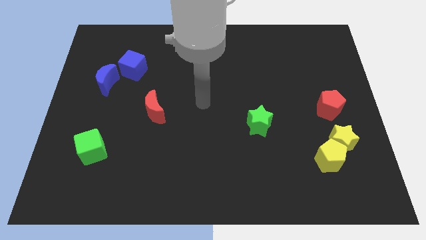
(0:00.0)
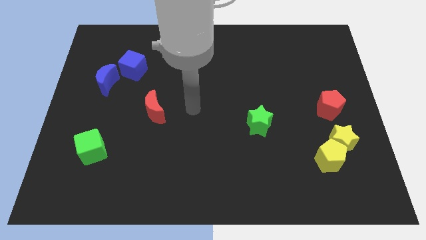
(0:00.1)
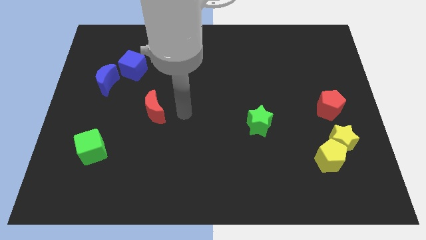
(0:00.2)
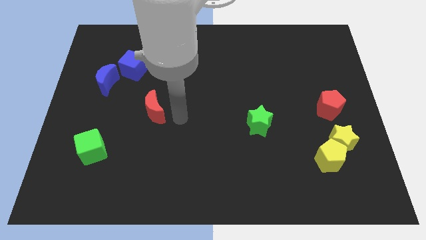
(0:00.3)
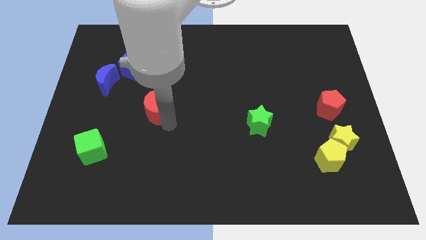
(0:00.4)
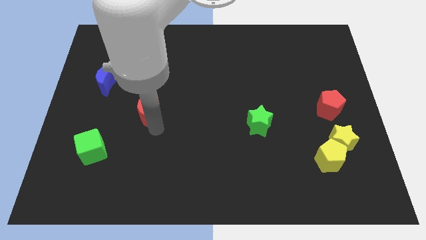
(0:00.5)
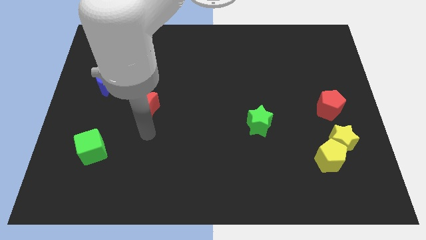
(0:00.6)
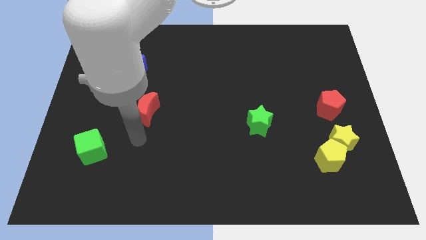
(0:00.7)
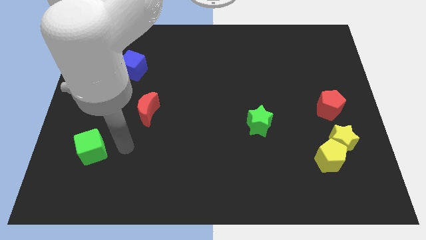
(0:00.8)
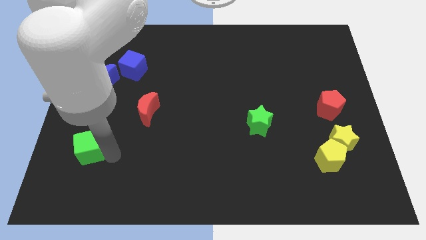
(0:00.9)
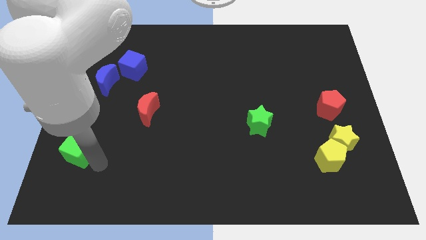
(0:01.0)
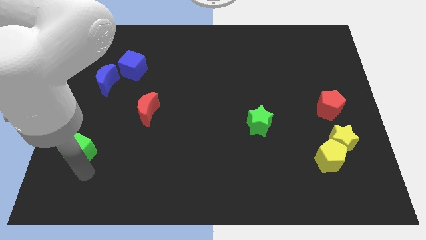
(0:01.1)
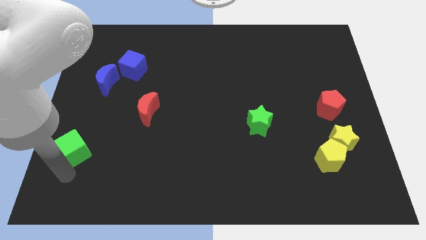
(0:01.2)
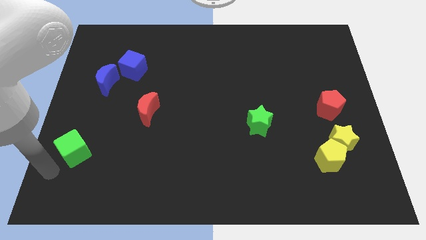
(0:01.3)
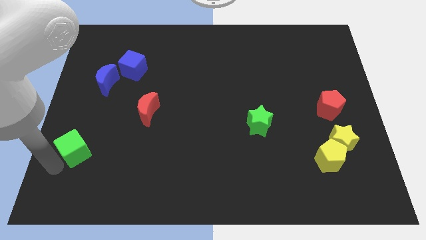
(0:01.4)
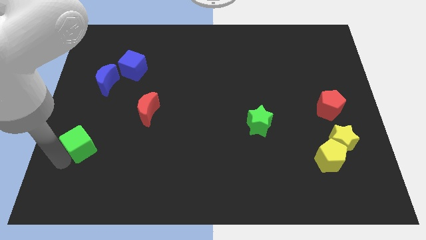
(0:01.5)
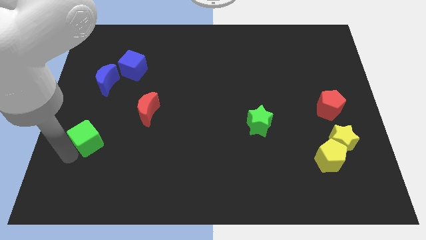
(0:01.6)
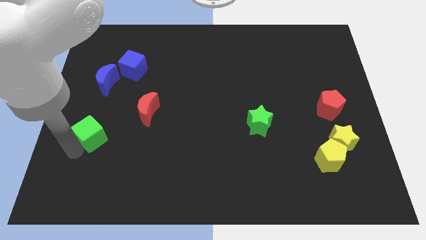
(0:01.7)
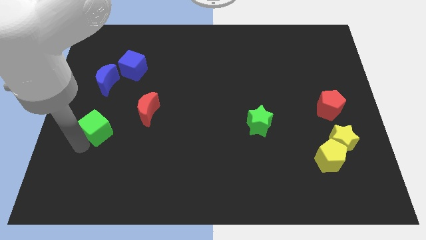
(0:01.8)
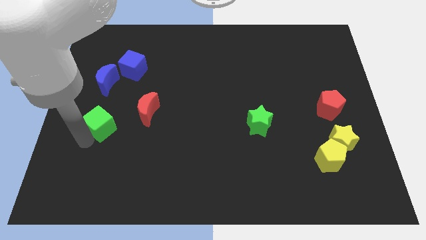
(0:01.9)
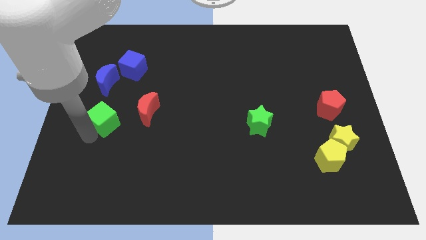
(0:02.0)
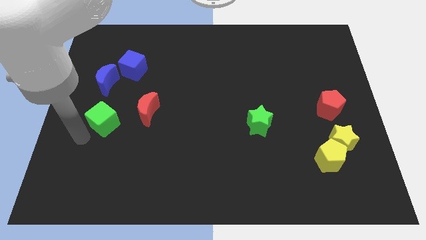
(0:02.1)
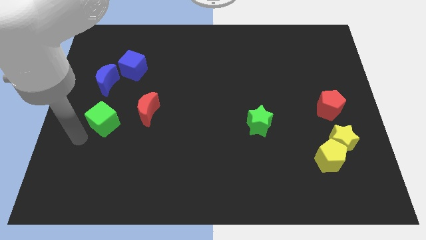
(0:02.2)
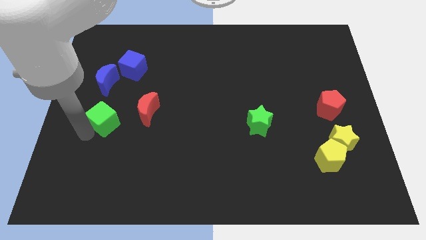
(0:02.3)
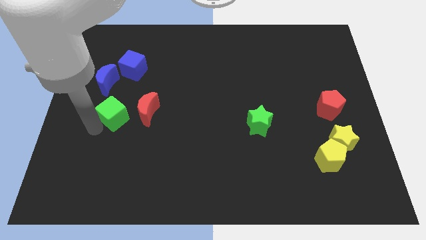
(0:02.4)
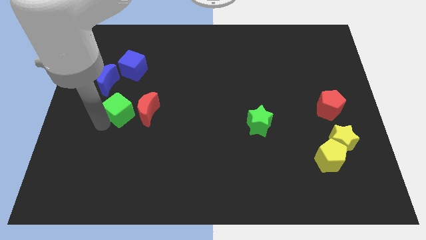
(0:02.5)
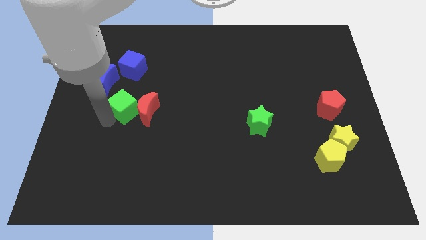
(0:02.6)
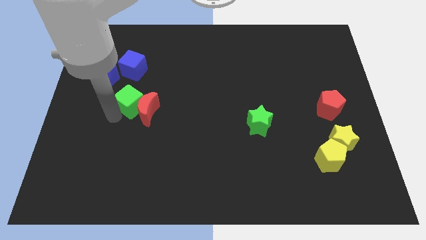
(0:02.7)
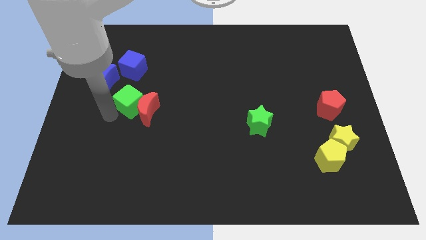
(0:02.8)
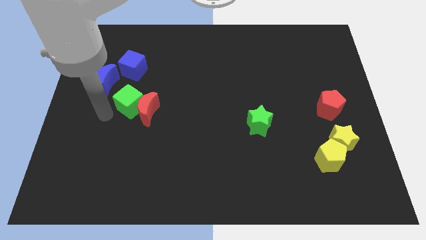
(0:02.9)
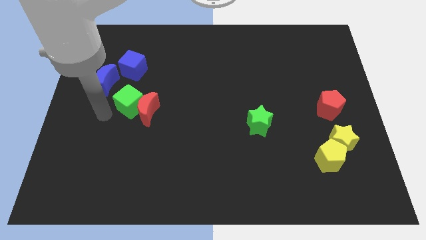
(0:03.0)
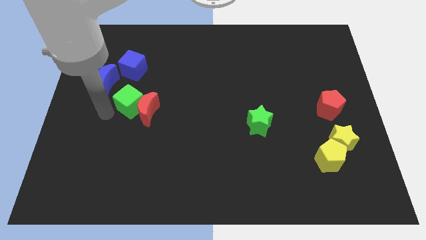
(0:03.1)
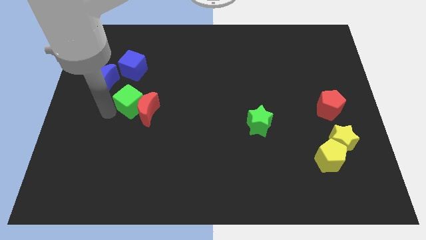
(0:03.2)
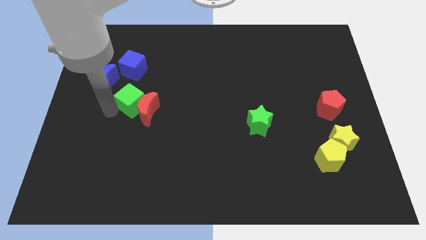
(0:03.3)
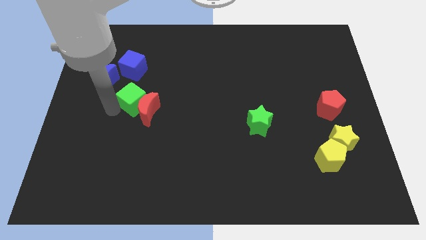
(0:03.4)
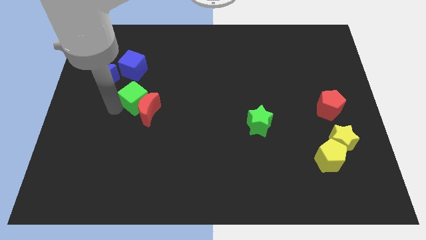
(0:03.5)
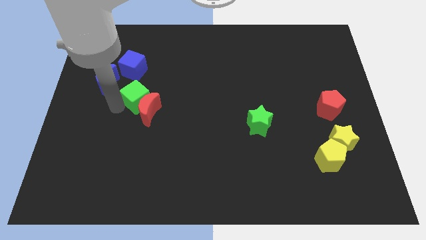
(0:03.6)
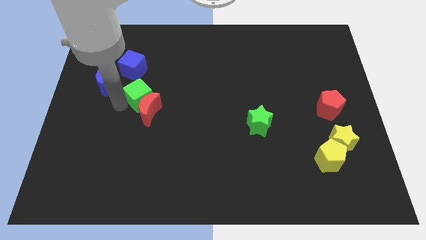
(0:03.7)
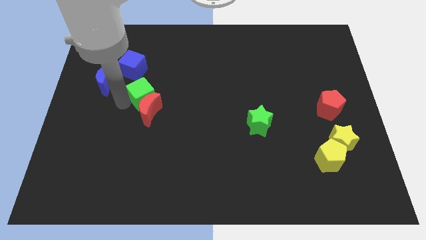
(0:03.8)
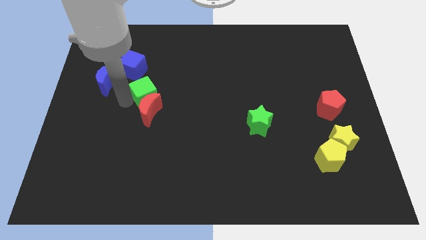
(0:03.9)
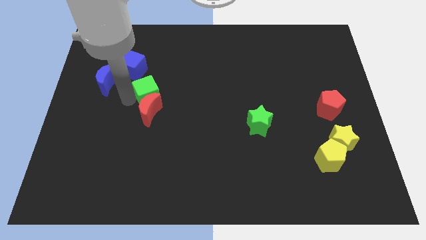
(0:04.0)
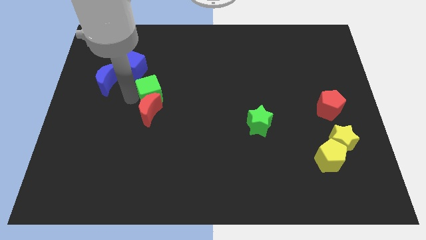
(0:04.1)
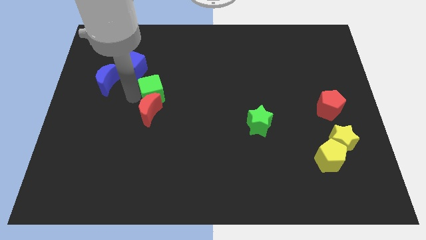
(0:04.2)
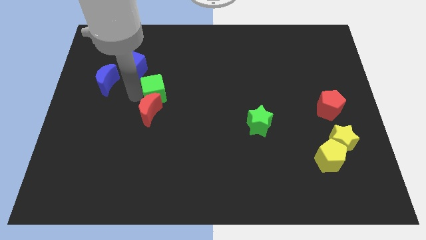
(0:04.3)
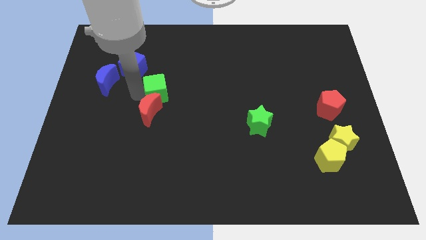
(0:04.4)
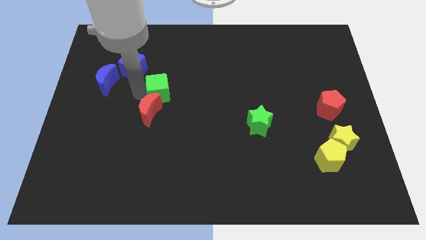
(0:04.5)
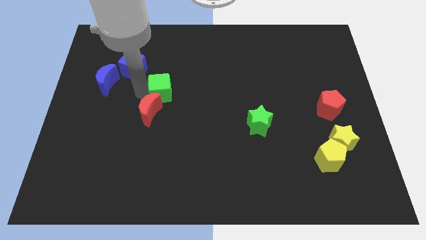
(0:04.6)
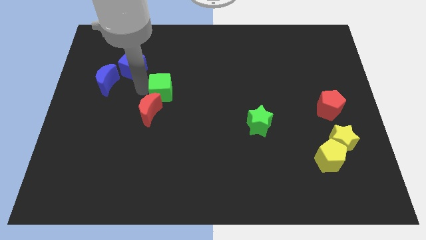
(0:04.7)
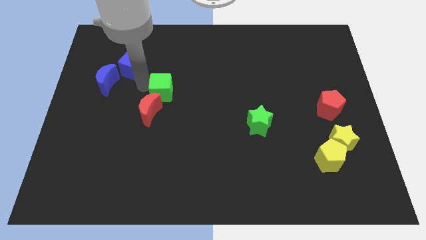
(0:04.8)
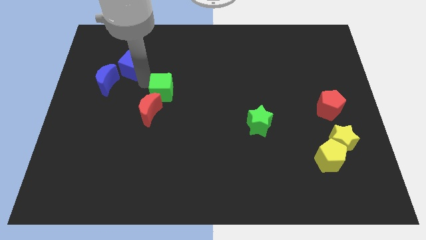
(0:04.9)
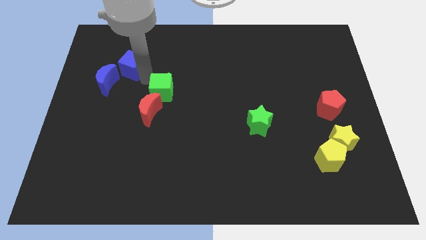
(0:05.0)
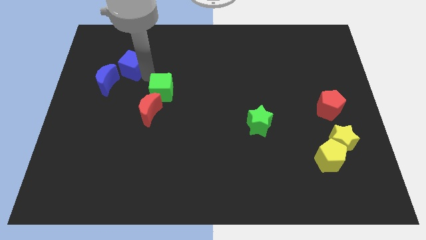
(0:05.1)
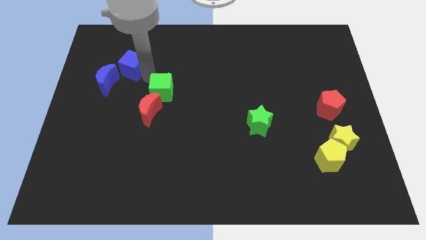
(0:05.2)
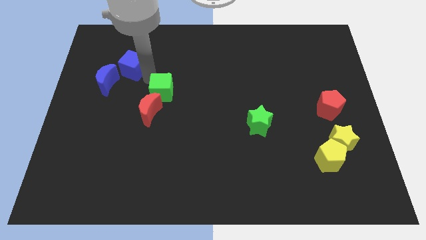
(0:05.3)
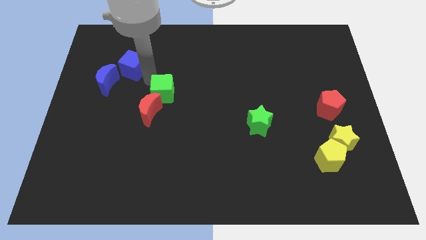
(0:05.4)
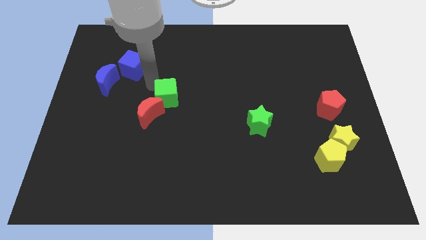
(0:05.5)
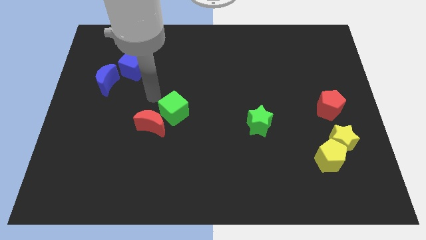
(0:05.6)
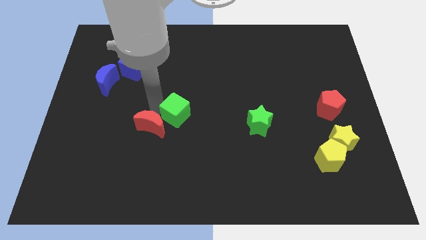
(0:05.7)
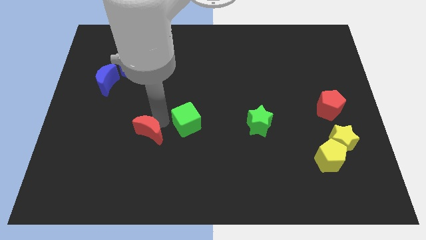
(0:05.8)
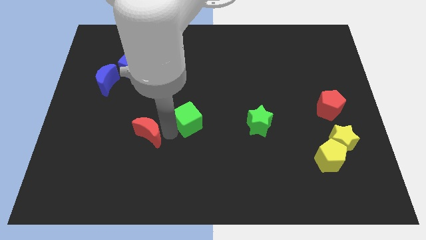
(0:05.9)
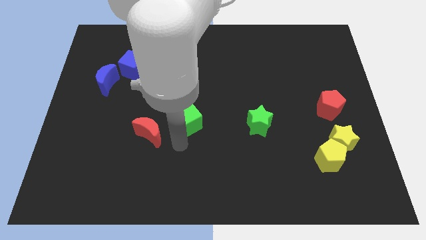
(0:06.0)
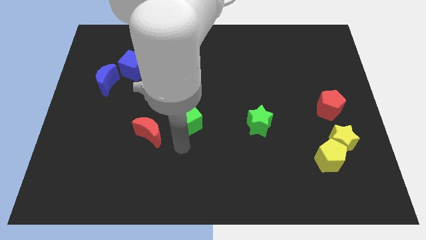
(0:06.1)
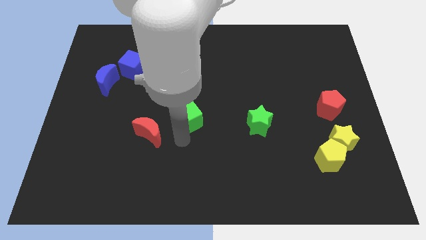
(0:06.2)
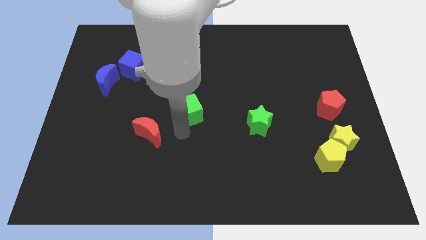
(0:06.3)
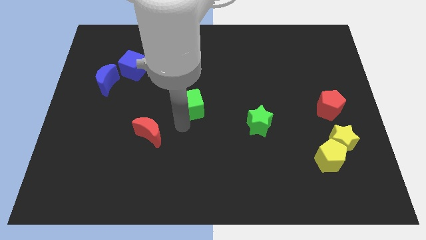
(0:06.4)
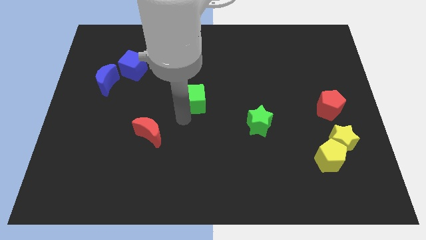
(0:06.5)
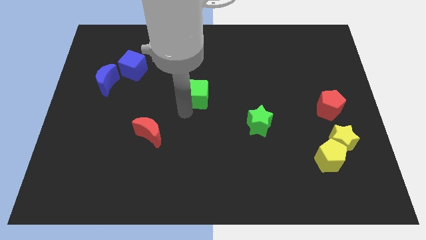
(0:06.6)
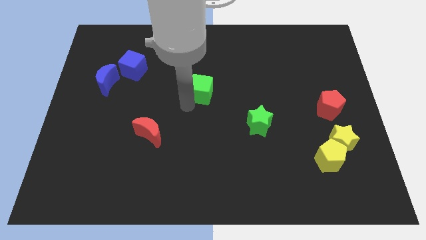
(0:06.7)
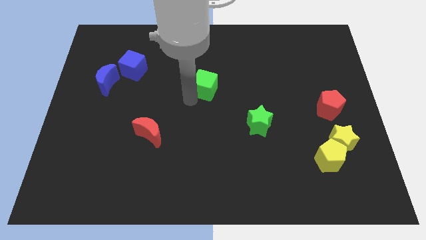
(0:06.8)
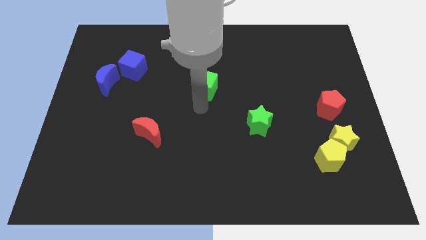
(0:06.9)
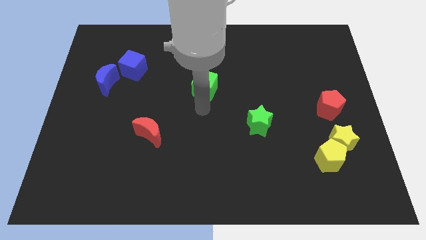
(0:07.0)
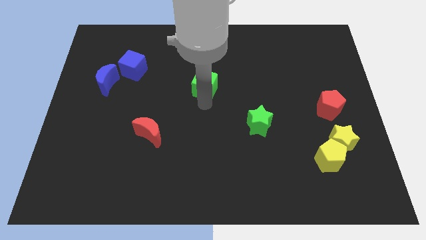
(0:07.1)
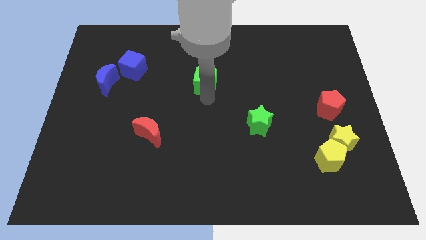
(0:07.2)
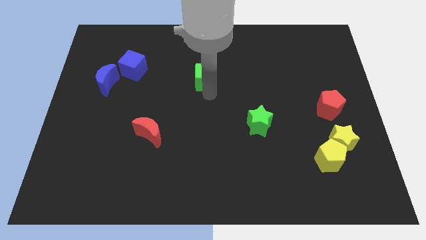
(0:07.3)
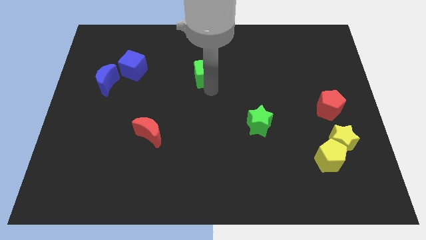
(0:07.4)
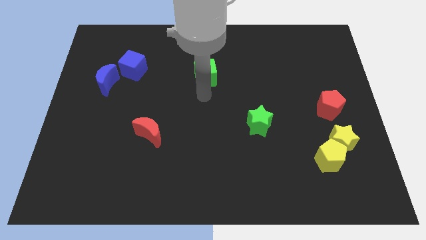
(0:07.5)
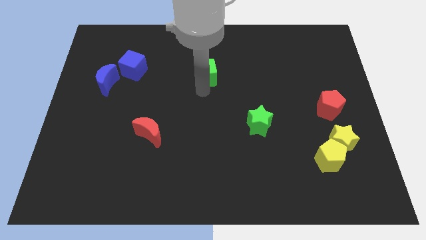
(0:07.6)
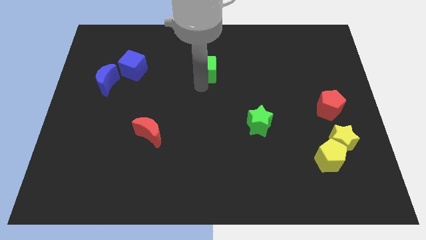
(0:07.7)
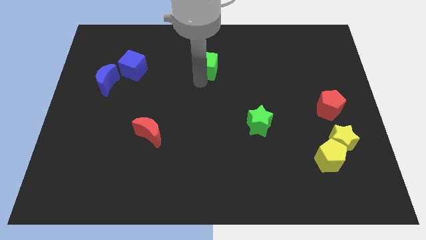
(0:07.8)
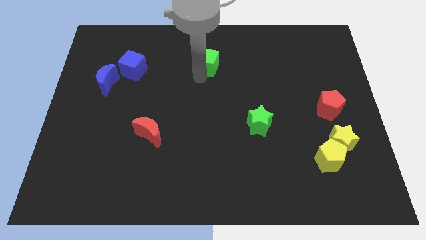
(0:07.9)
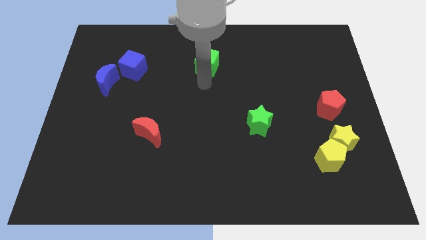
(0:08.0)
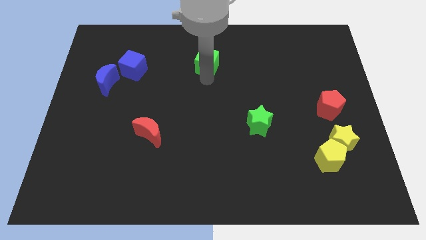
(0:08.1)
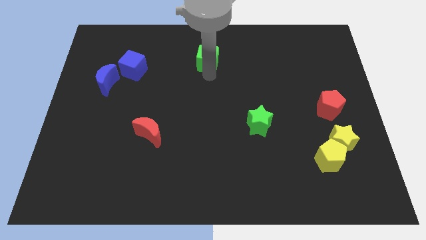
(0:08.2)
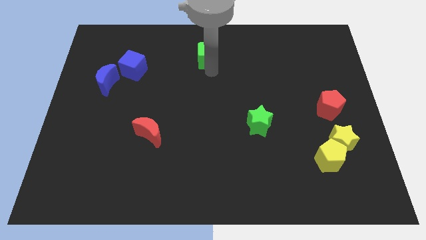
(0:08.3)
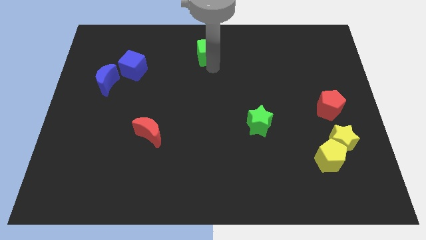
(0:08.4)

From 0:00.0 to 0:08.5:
move the green cube to the top side
